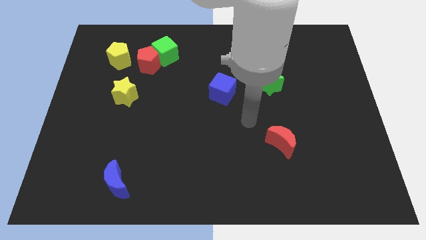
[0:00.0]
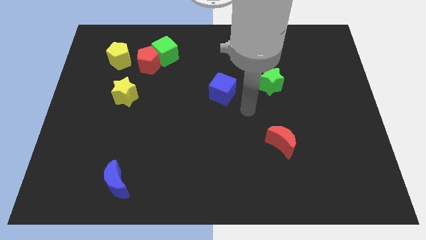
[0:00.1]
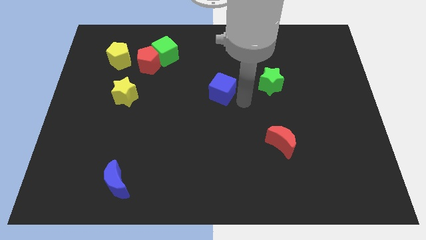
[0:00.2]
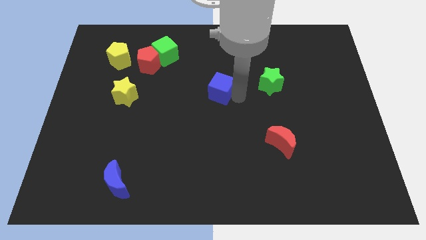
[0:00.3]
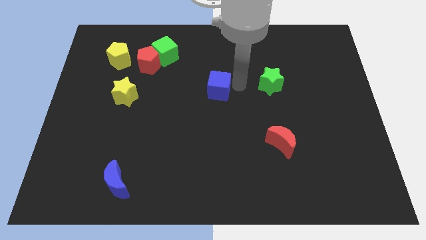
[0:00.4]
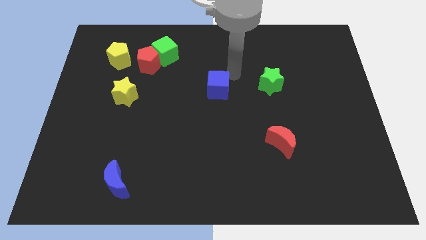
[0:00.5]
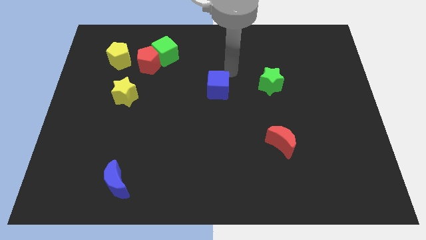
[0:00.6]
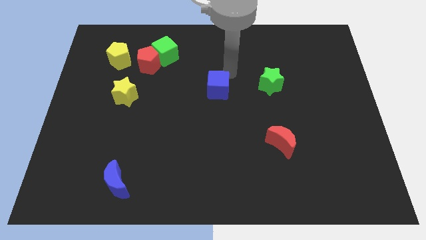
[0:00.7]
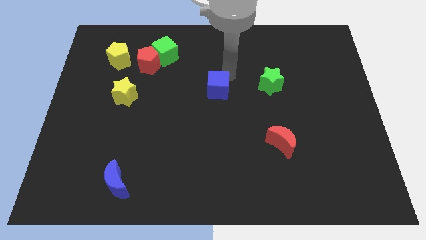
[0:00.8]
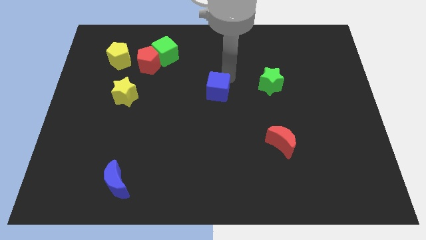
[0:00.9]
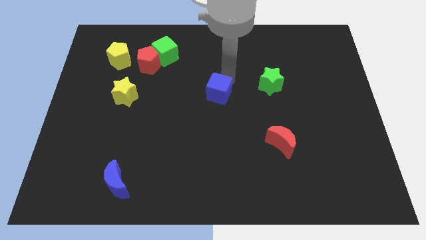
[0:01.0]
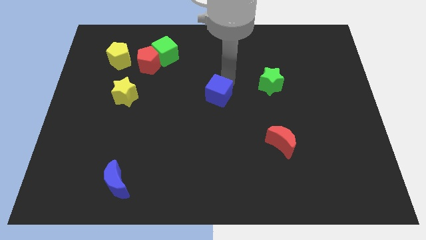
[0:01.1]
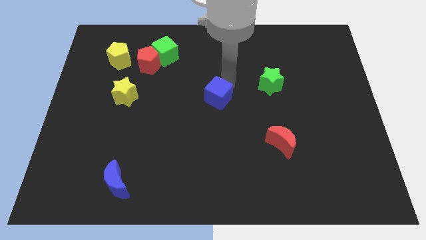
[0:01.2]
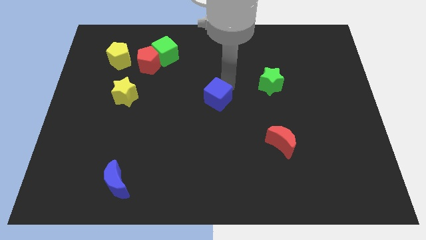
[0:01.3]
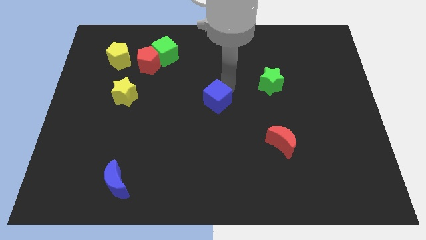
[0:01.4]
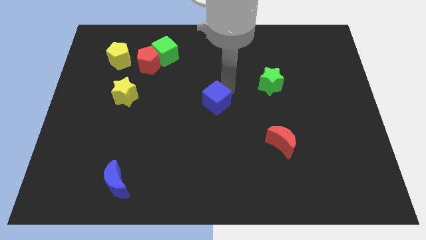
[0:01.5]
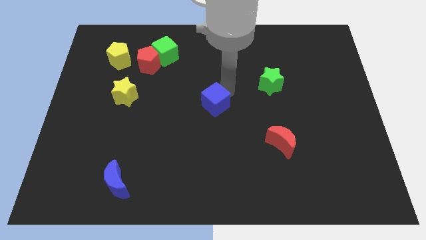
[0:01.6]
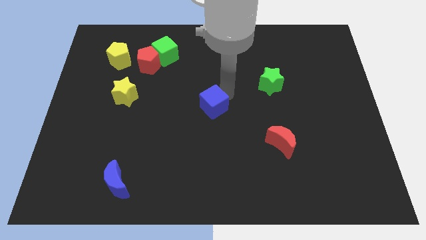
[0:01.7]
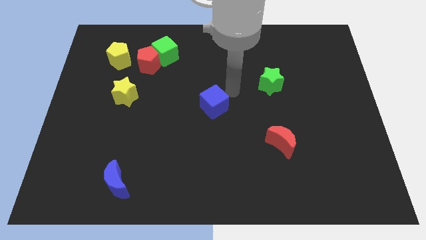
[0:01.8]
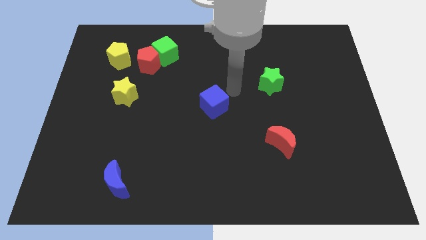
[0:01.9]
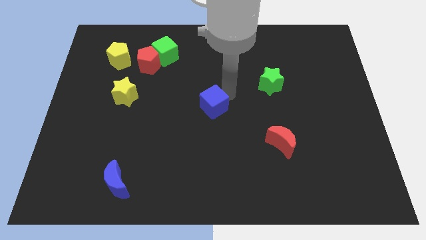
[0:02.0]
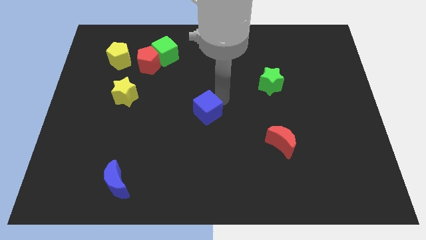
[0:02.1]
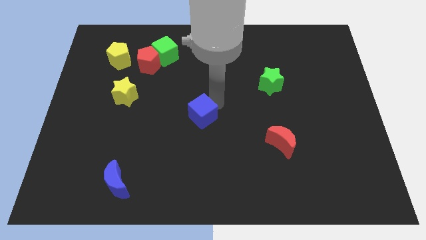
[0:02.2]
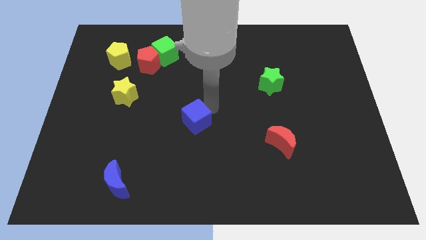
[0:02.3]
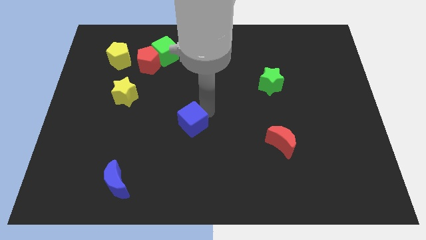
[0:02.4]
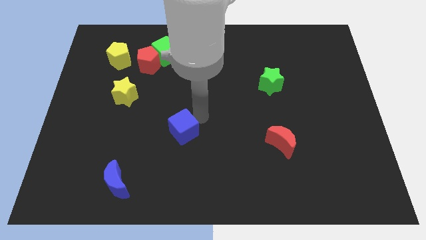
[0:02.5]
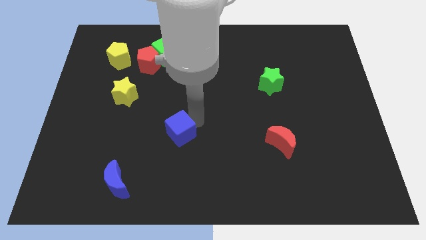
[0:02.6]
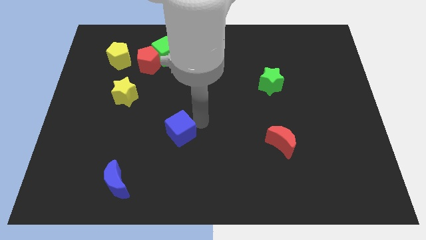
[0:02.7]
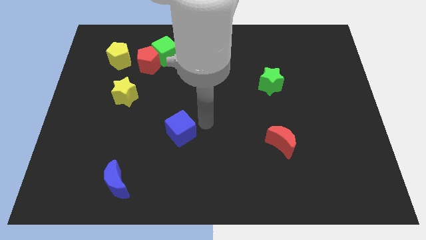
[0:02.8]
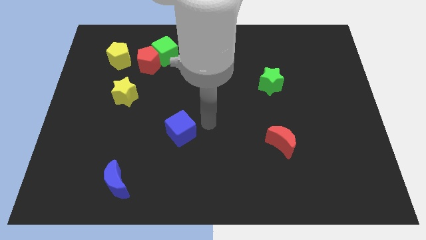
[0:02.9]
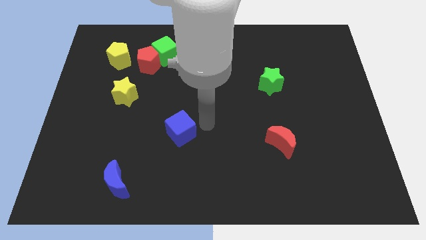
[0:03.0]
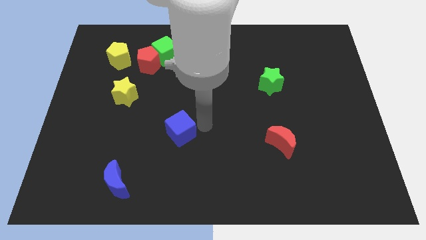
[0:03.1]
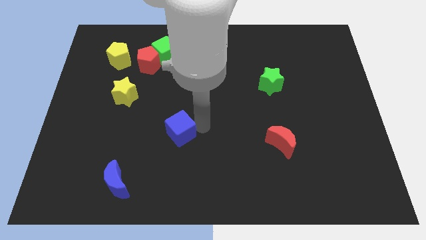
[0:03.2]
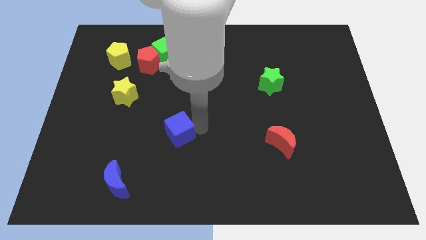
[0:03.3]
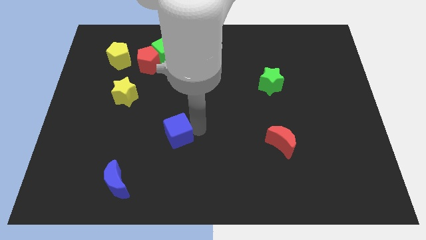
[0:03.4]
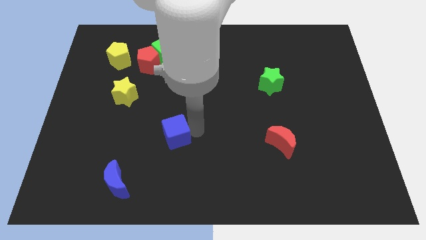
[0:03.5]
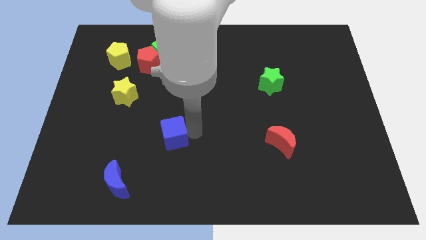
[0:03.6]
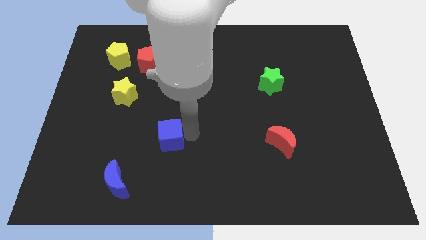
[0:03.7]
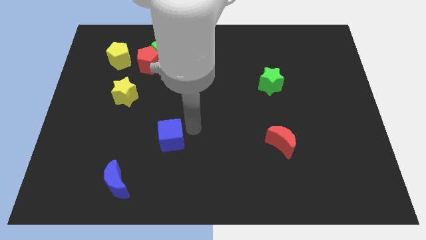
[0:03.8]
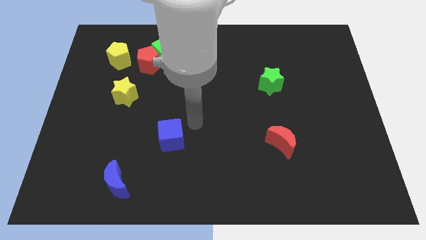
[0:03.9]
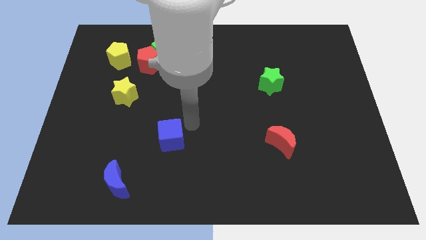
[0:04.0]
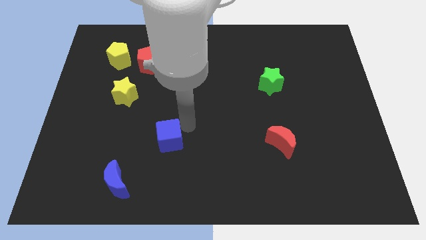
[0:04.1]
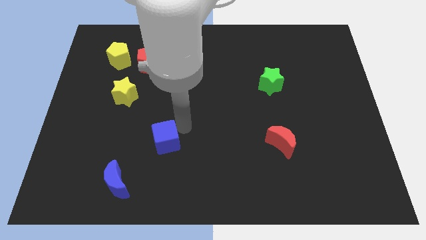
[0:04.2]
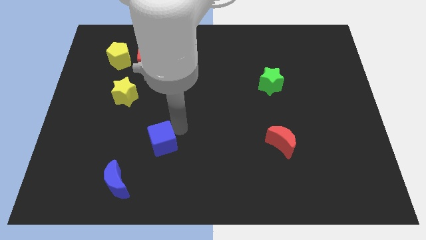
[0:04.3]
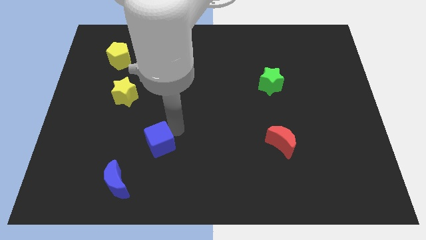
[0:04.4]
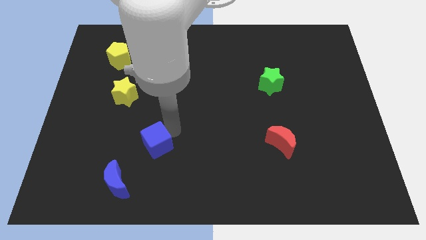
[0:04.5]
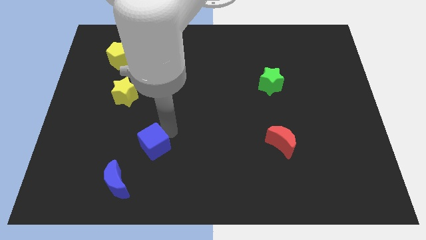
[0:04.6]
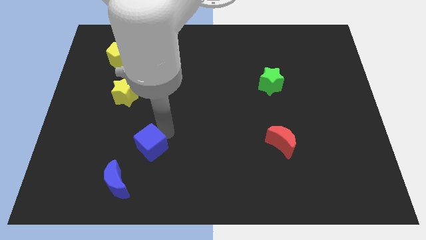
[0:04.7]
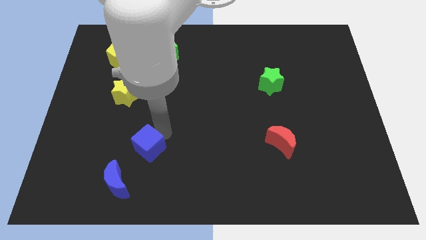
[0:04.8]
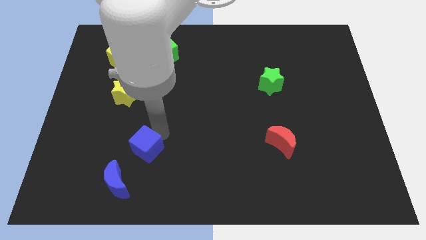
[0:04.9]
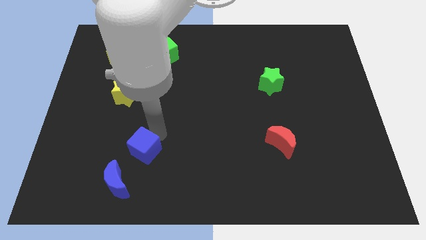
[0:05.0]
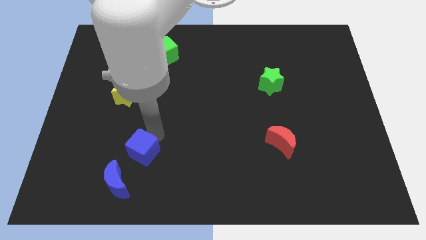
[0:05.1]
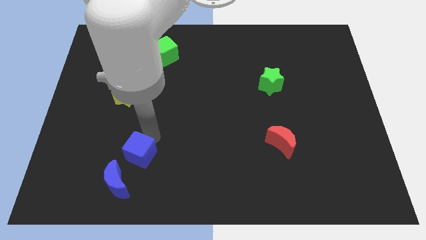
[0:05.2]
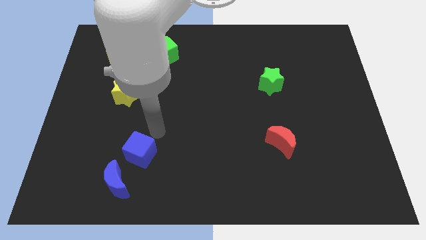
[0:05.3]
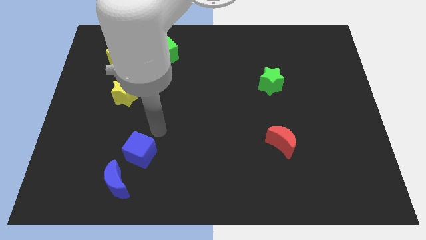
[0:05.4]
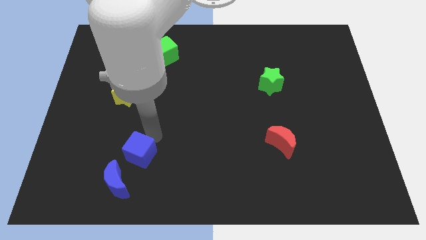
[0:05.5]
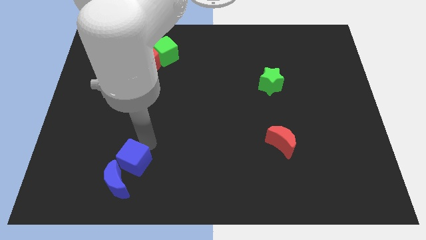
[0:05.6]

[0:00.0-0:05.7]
put the blue cube close to the blue moon
